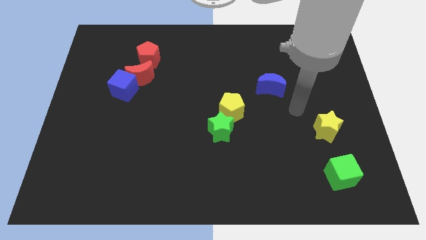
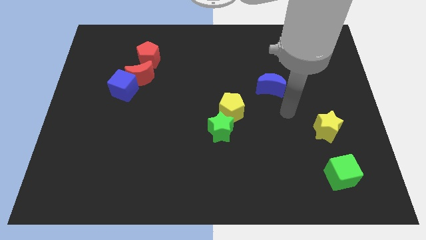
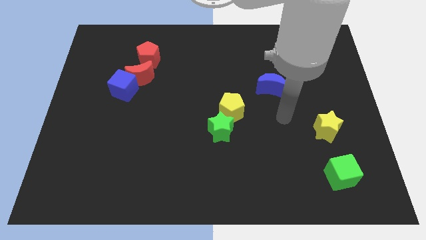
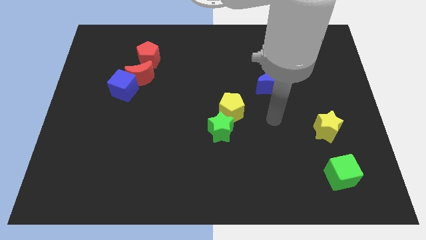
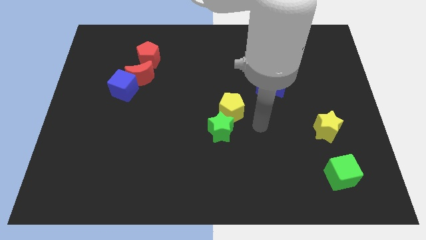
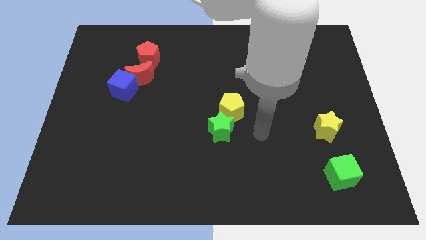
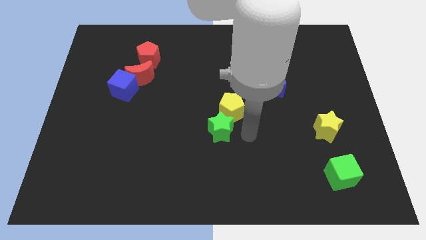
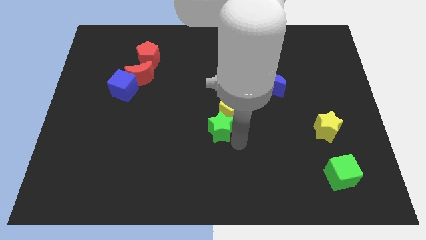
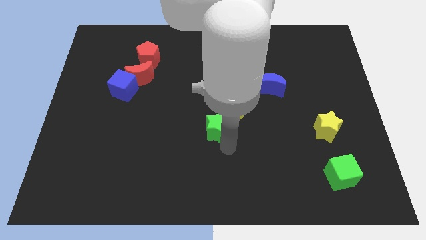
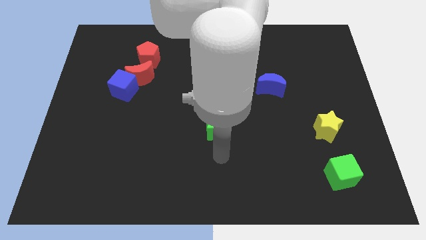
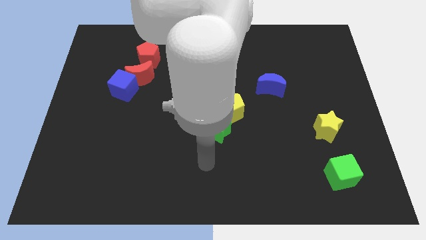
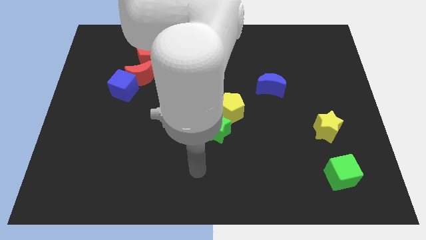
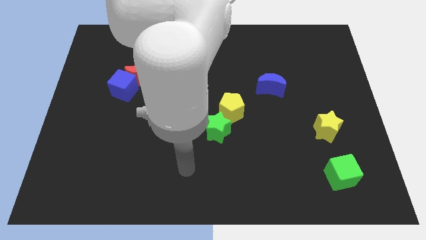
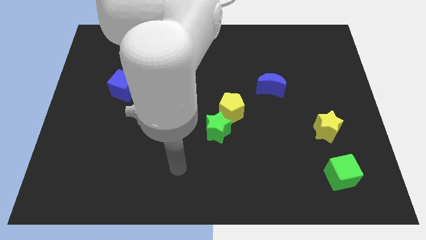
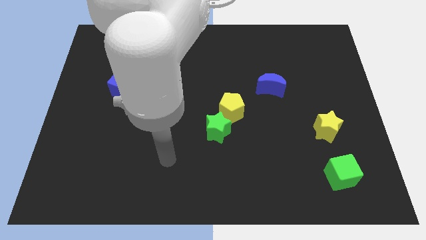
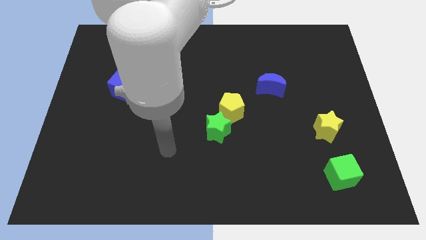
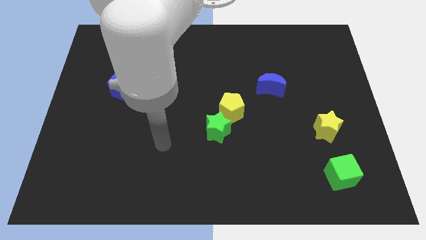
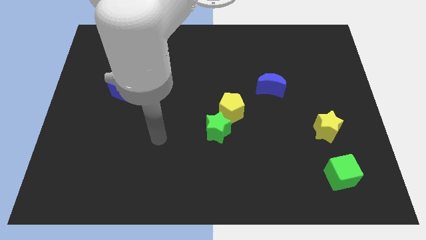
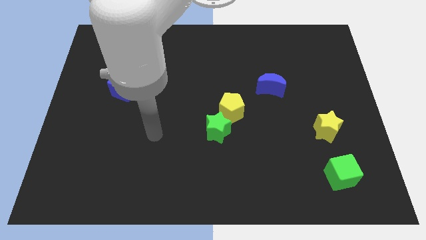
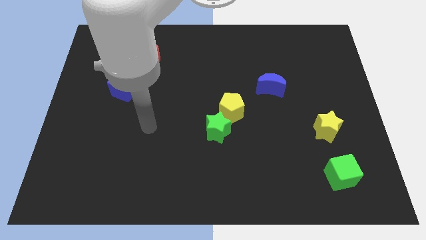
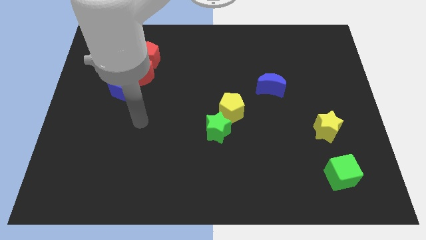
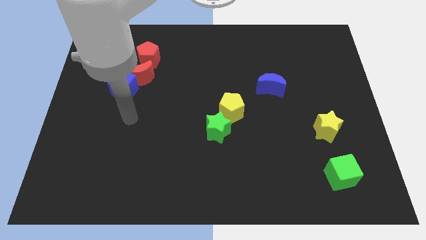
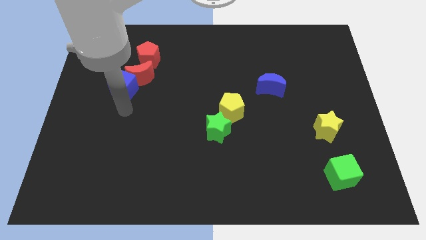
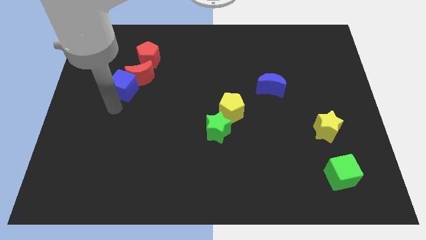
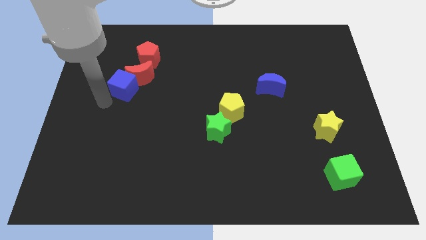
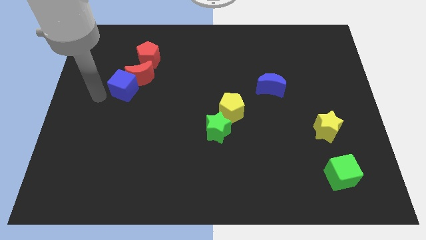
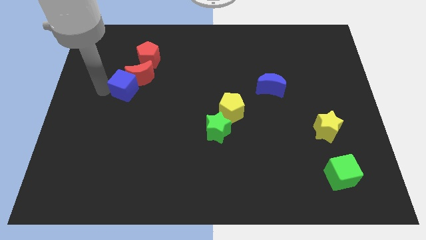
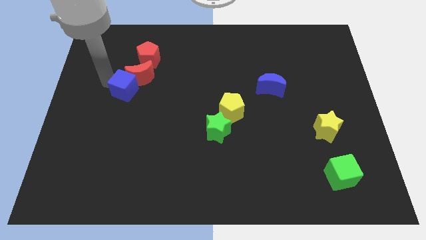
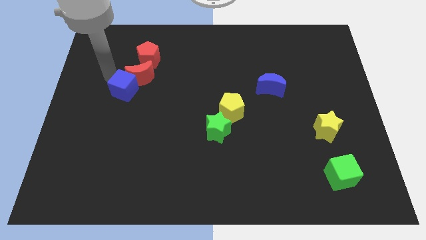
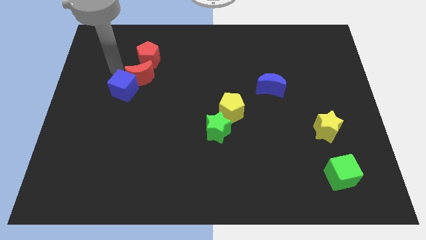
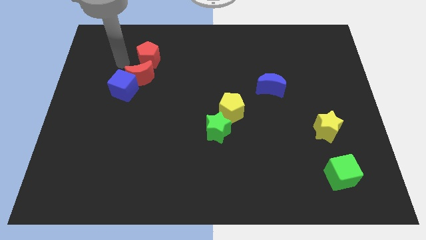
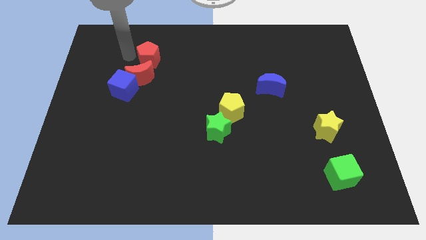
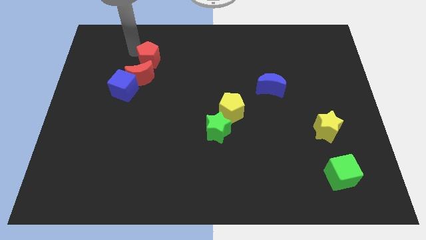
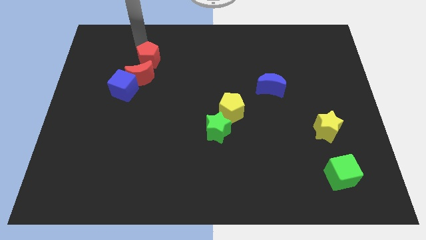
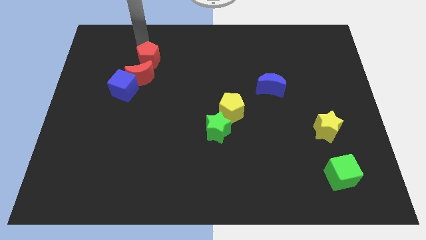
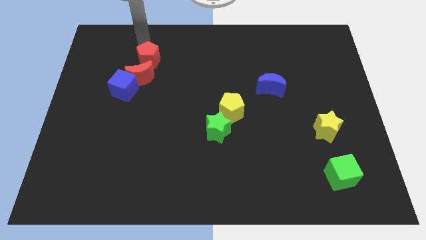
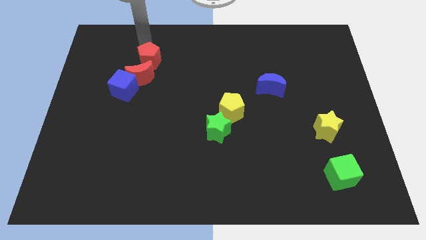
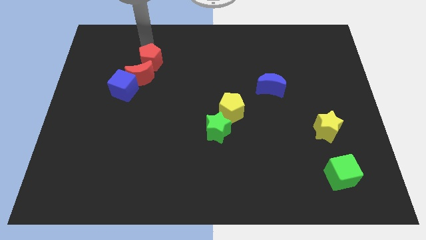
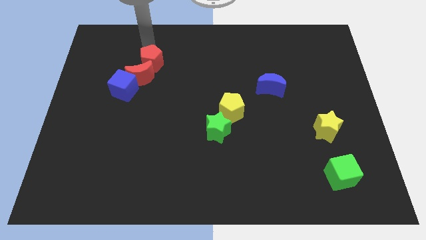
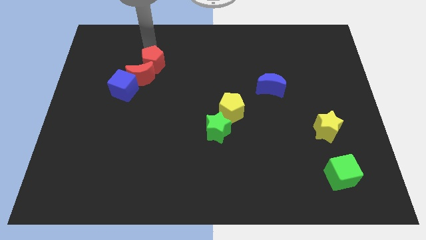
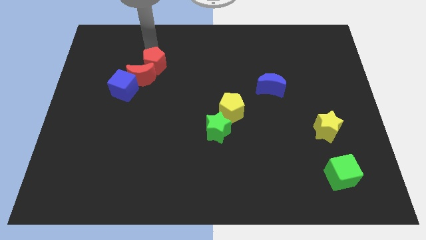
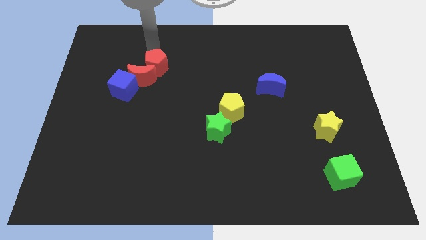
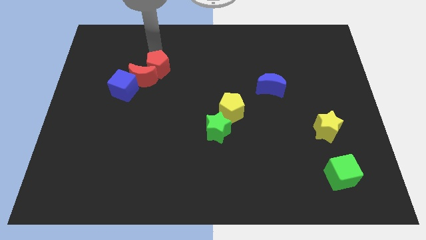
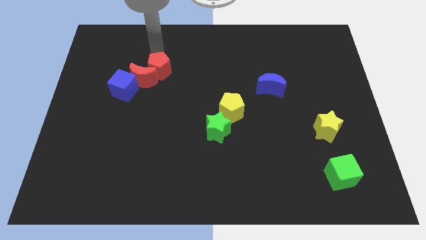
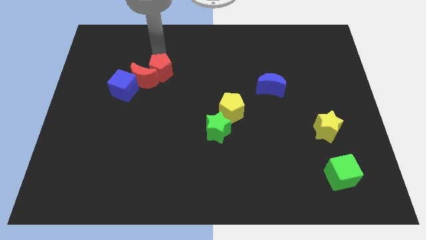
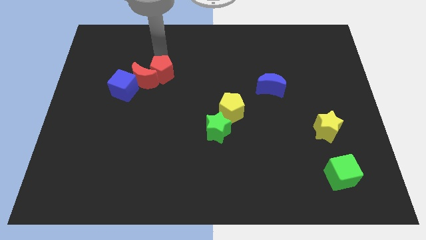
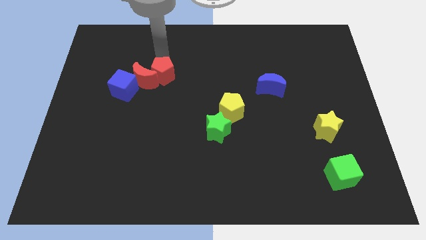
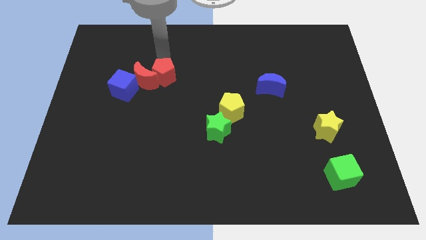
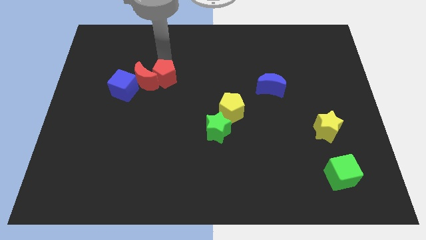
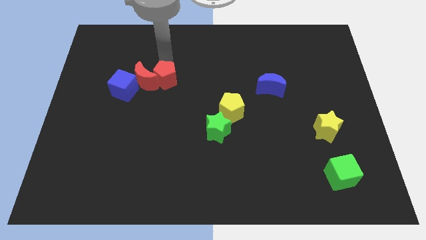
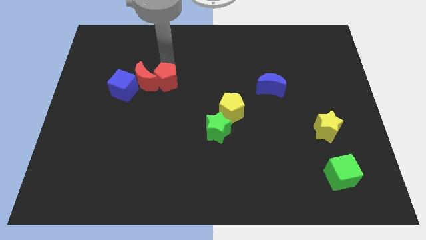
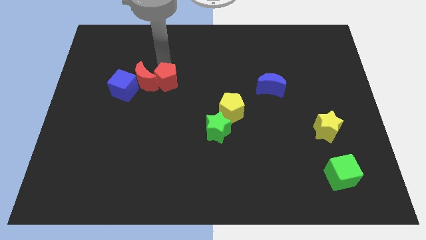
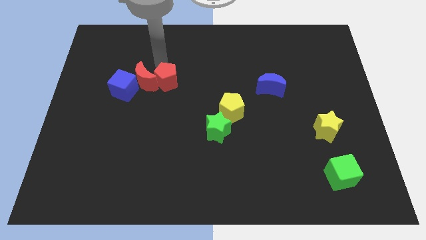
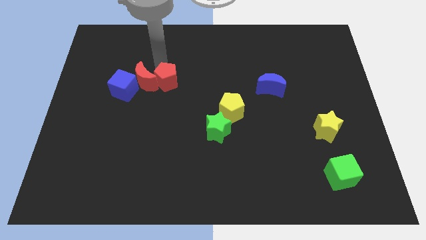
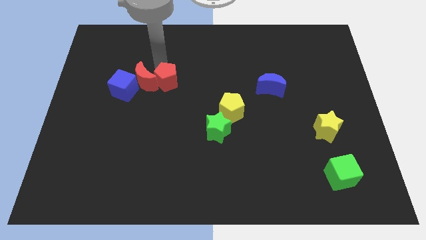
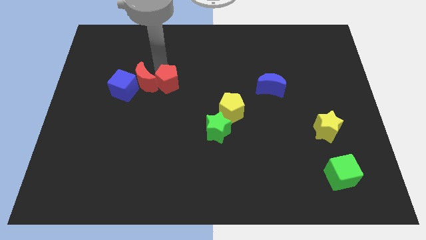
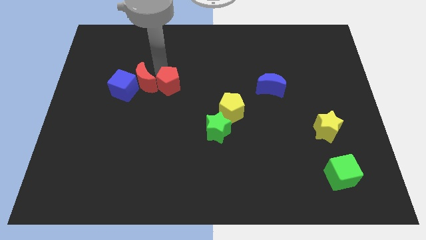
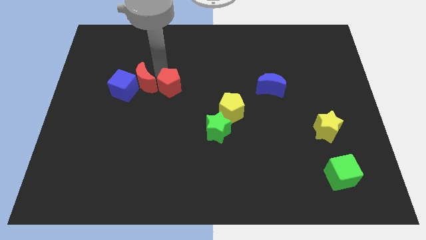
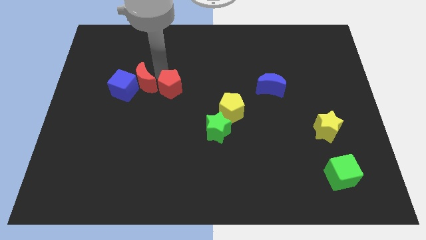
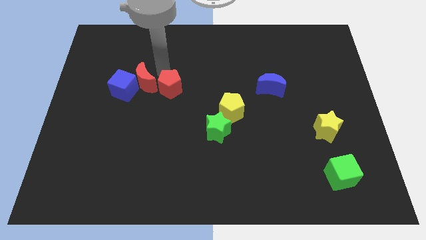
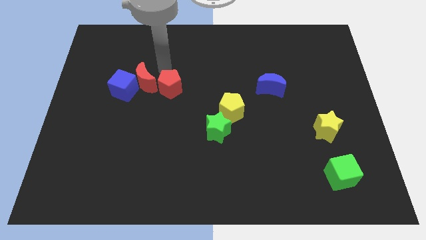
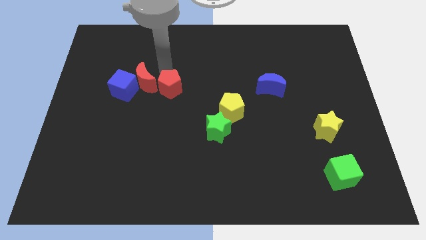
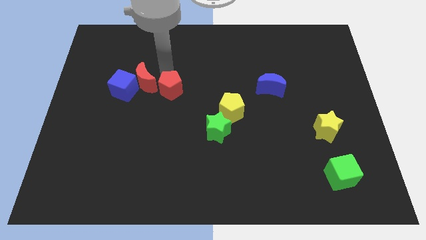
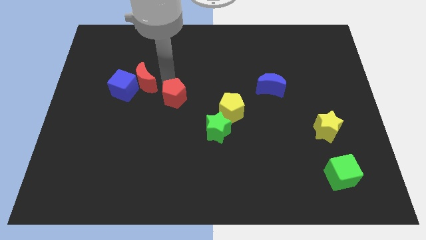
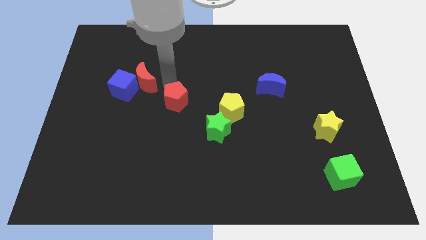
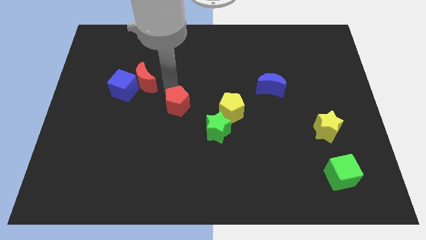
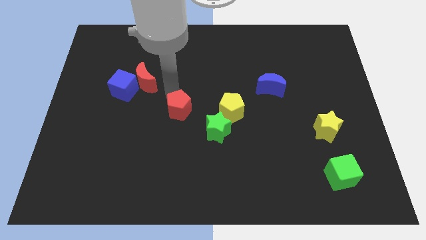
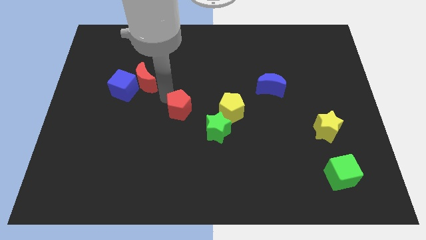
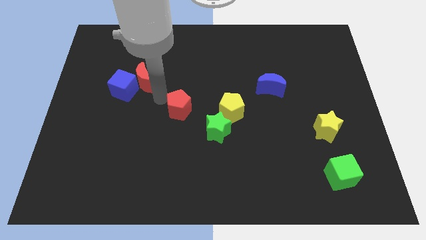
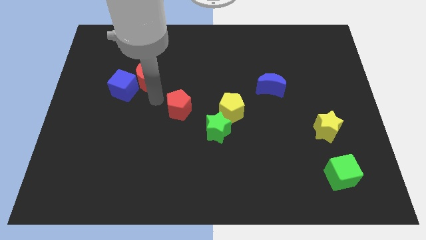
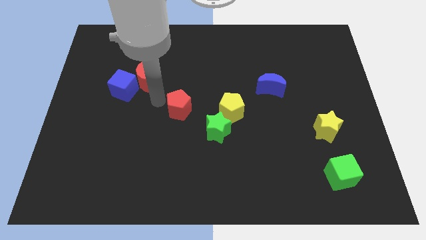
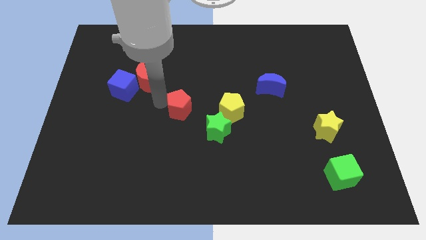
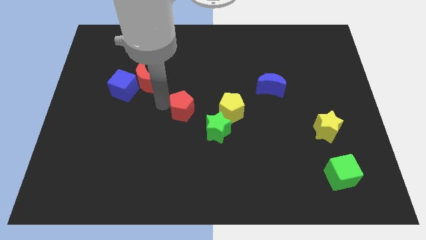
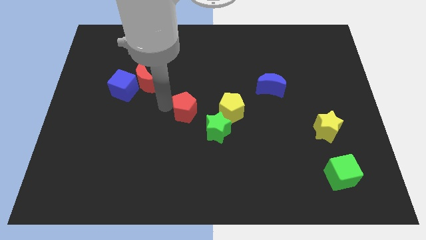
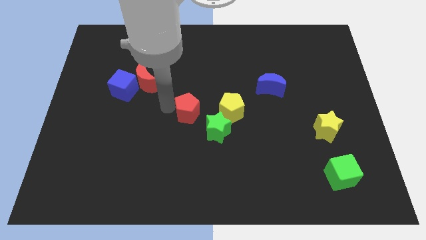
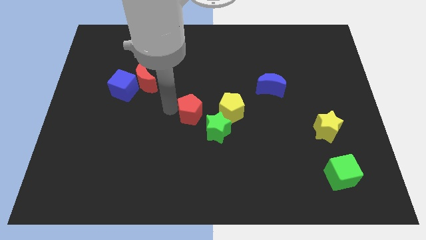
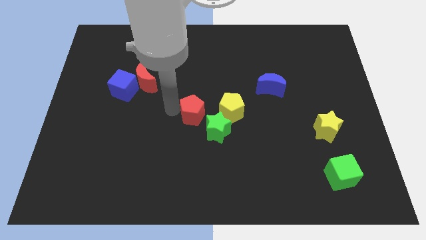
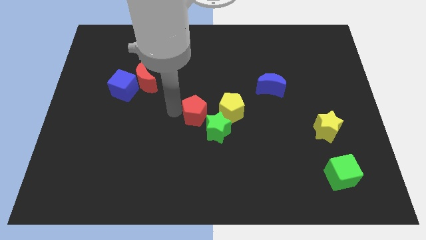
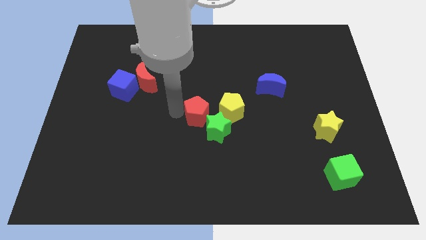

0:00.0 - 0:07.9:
put the red pentagon to the green star
